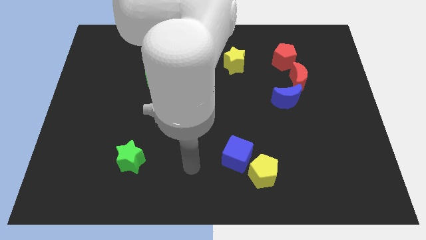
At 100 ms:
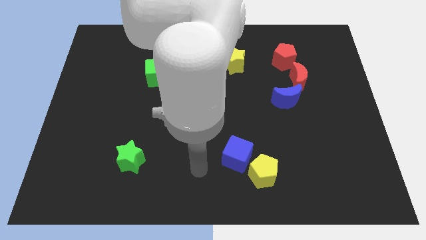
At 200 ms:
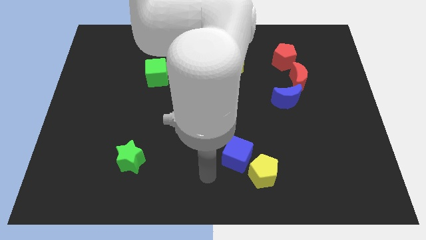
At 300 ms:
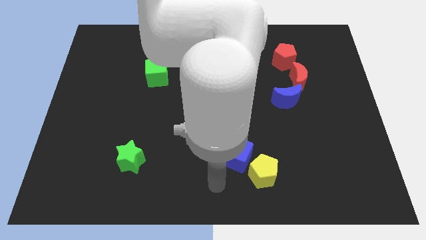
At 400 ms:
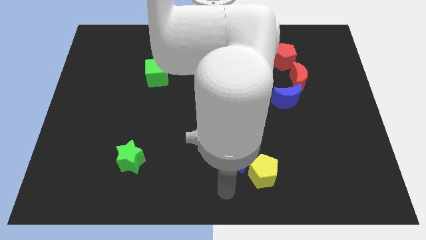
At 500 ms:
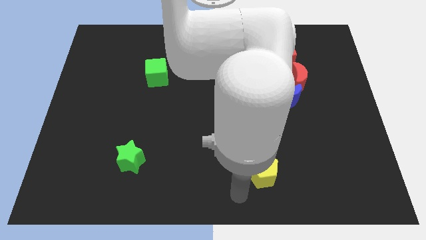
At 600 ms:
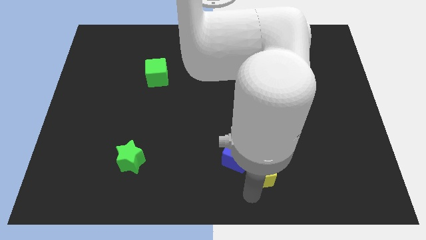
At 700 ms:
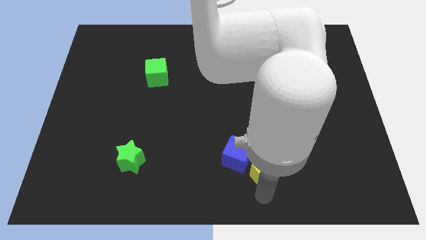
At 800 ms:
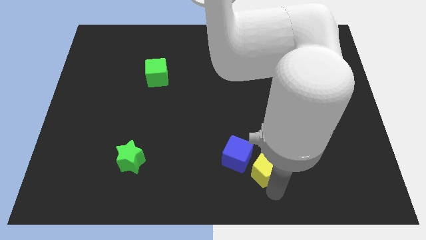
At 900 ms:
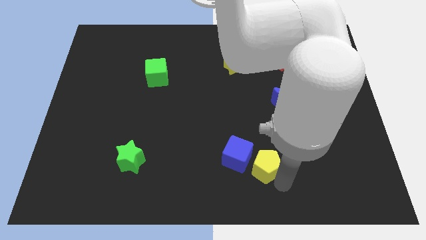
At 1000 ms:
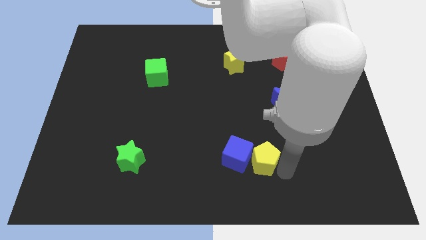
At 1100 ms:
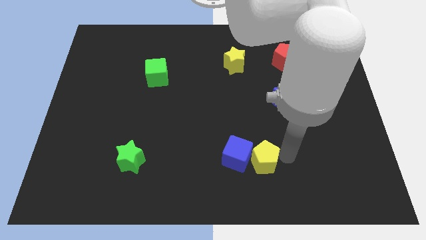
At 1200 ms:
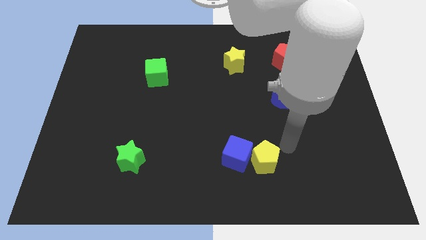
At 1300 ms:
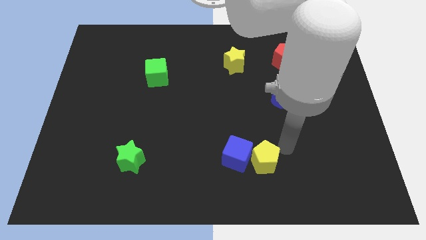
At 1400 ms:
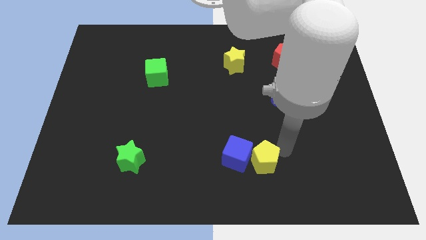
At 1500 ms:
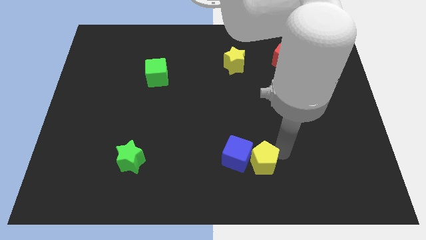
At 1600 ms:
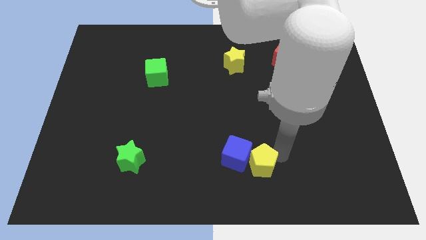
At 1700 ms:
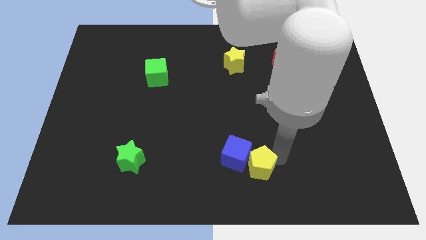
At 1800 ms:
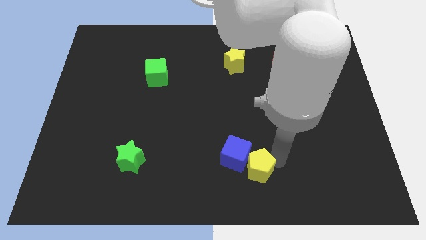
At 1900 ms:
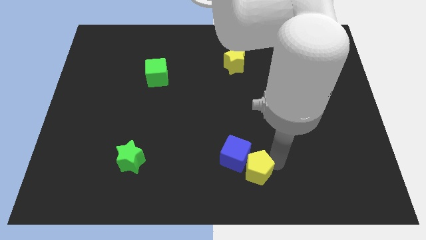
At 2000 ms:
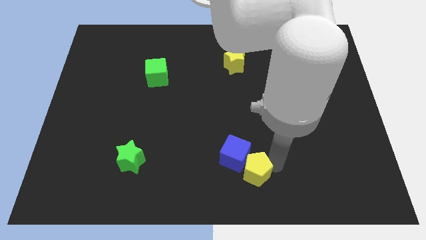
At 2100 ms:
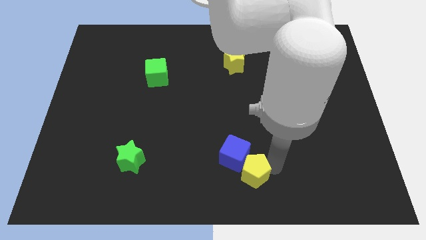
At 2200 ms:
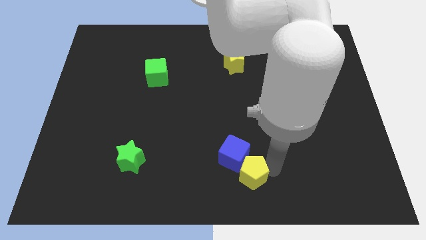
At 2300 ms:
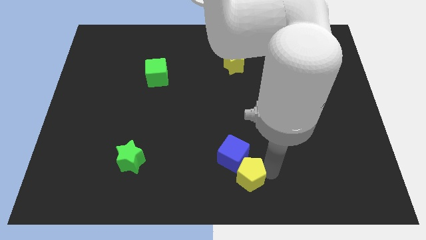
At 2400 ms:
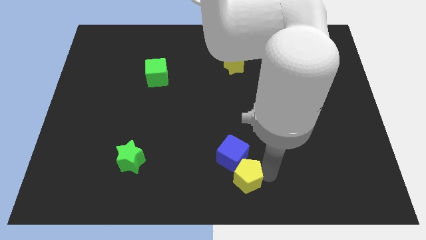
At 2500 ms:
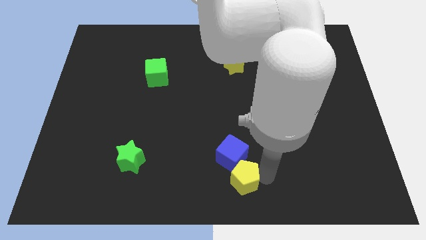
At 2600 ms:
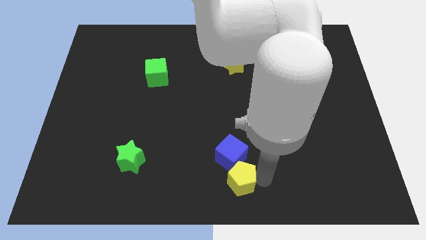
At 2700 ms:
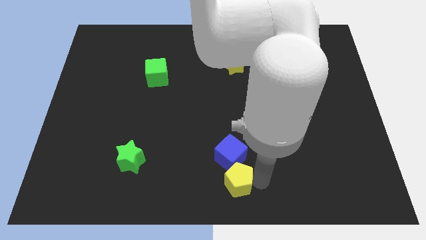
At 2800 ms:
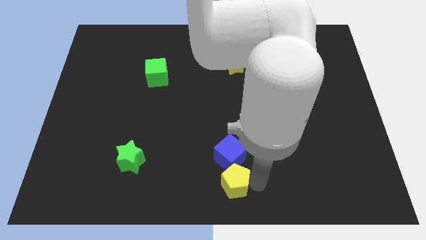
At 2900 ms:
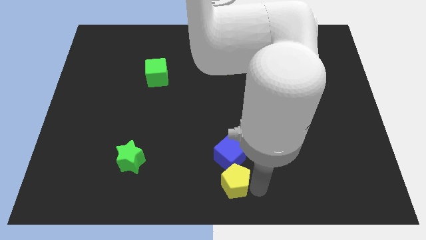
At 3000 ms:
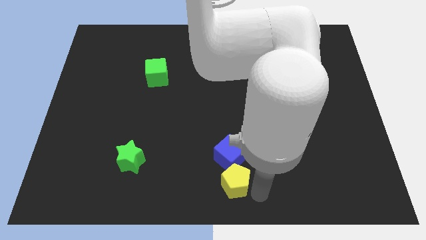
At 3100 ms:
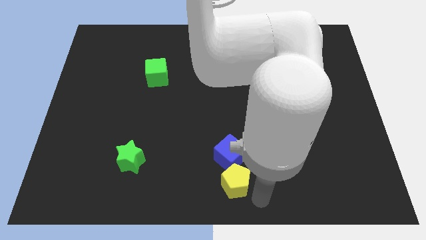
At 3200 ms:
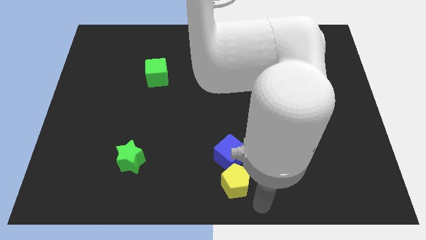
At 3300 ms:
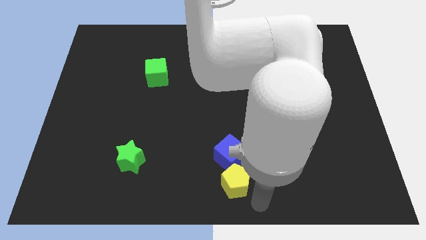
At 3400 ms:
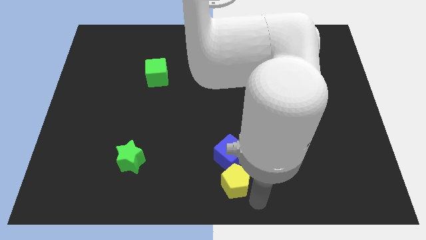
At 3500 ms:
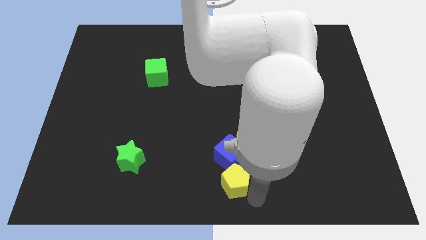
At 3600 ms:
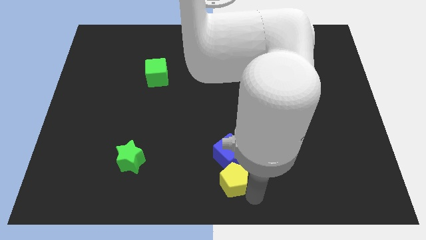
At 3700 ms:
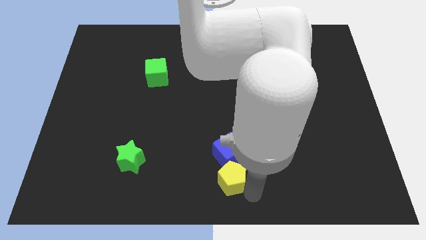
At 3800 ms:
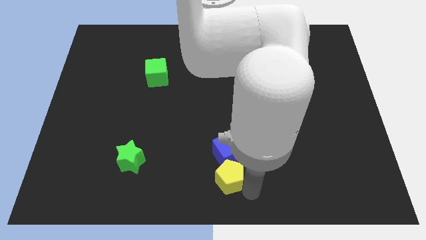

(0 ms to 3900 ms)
slide the yellow pentagon a bit to the left

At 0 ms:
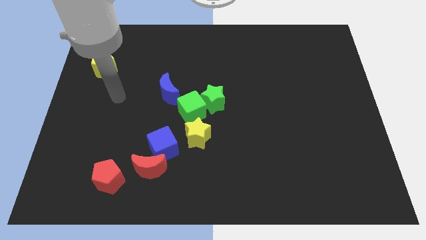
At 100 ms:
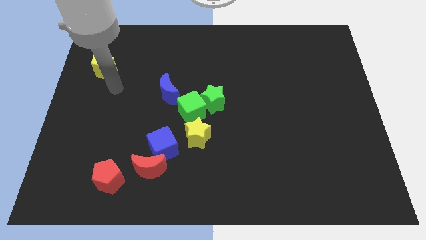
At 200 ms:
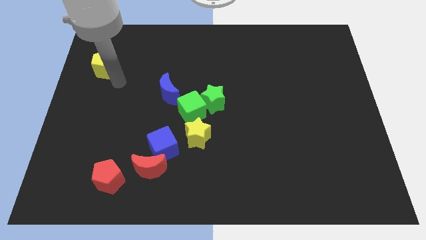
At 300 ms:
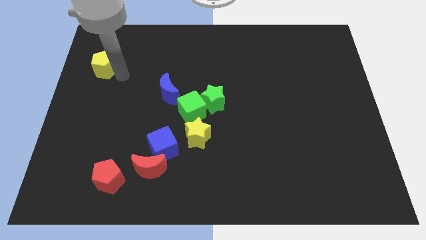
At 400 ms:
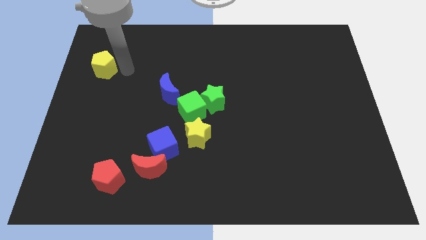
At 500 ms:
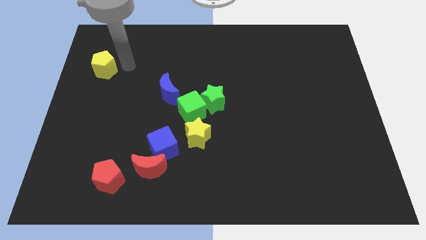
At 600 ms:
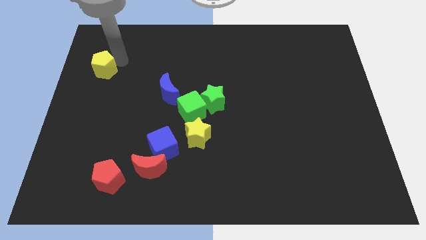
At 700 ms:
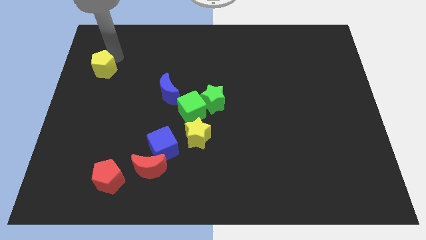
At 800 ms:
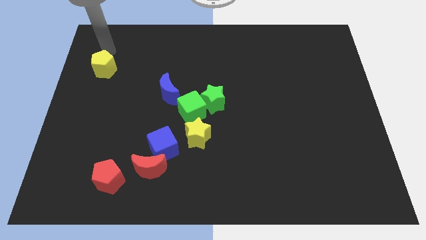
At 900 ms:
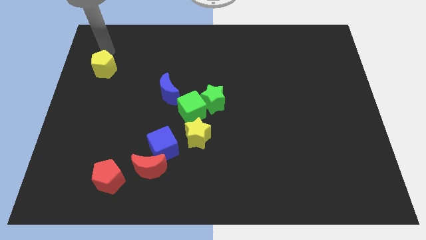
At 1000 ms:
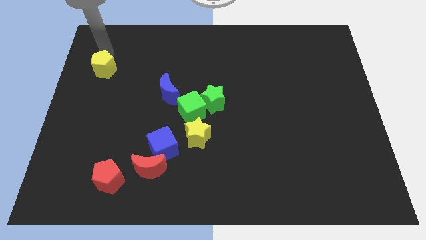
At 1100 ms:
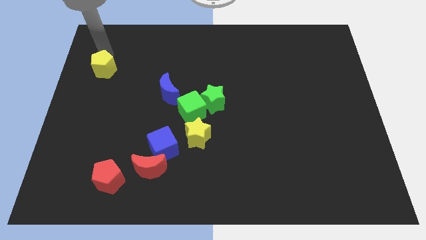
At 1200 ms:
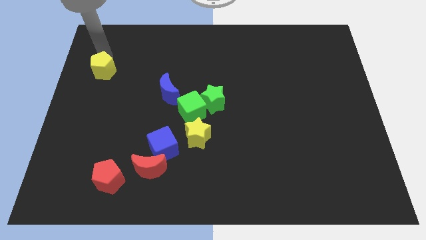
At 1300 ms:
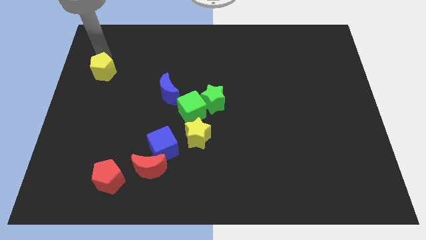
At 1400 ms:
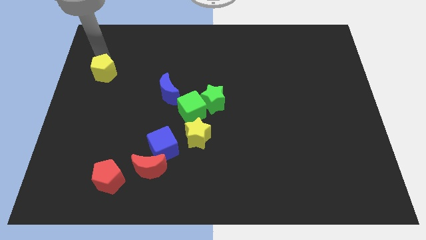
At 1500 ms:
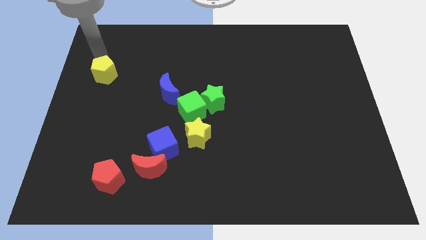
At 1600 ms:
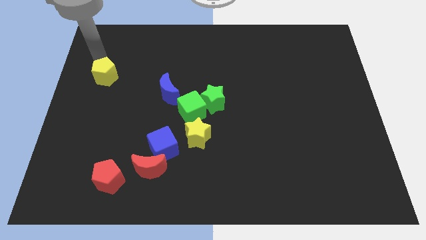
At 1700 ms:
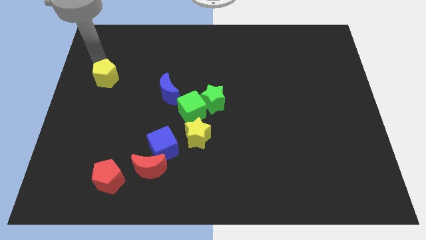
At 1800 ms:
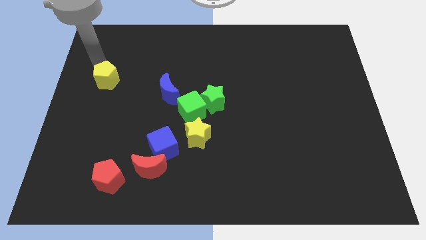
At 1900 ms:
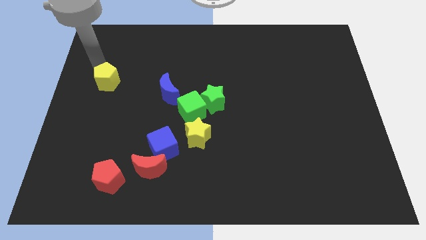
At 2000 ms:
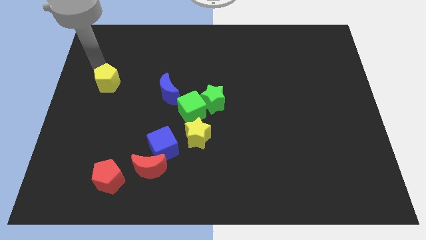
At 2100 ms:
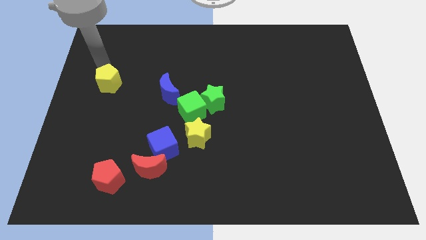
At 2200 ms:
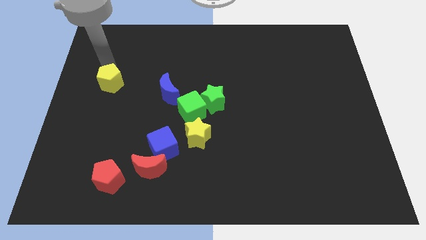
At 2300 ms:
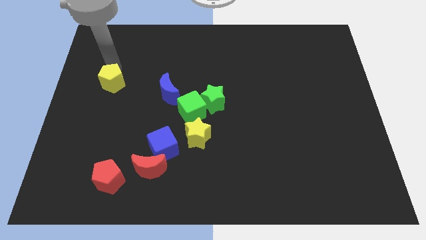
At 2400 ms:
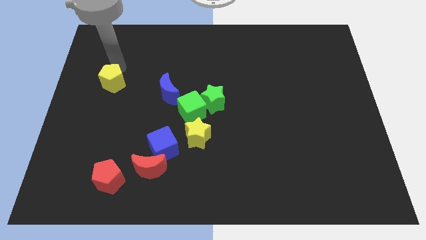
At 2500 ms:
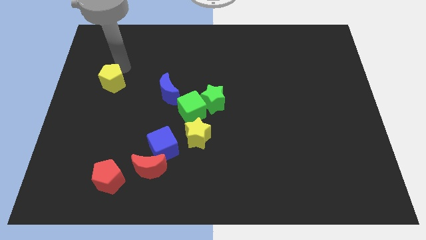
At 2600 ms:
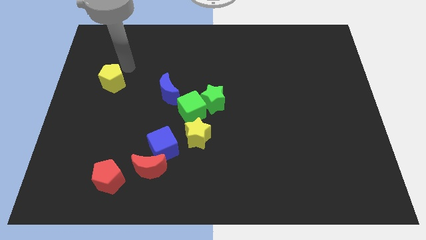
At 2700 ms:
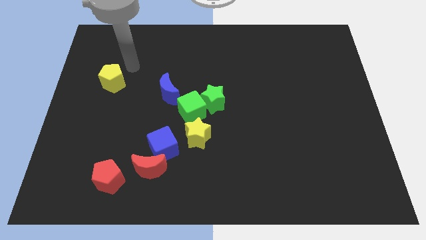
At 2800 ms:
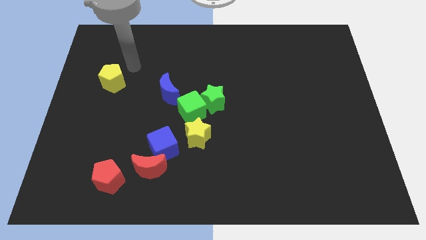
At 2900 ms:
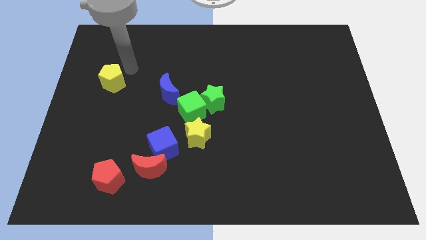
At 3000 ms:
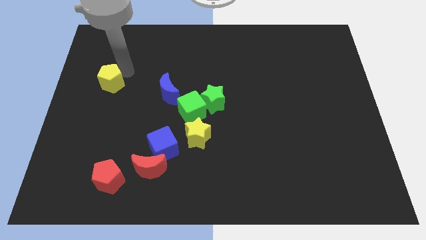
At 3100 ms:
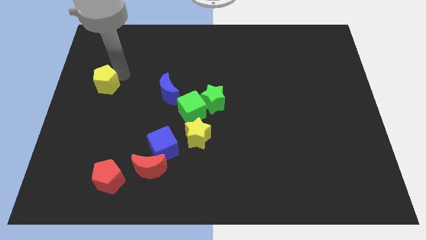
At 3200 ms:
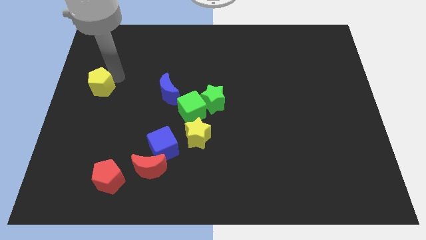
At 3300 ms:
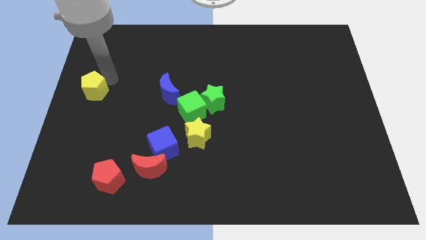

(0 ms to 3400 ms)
move the yellow pentagon a bit downwards

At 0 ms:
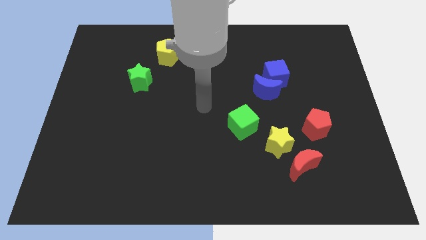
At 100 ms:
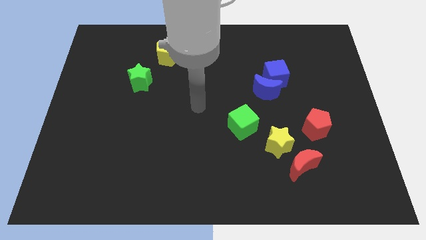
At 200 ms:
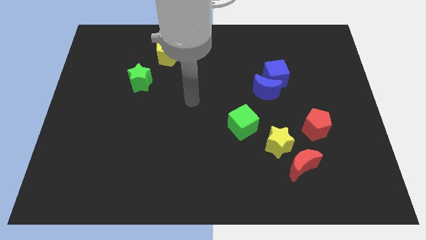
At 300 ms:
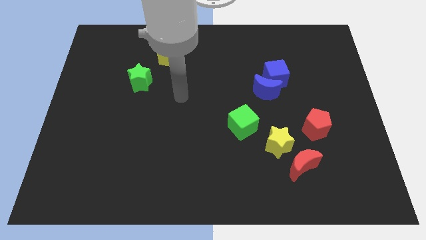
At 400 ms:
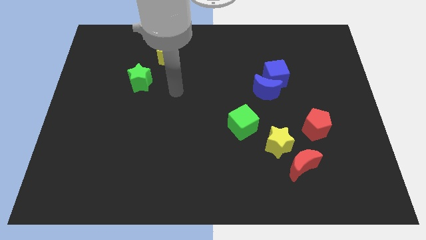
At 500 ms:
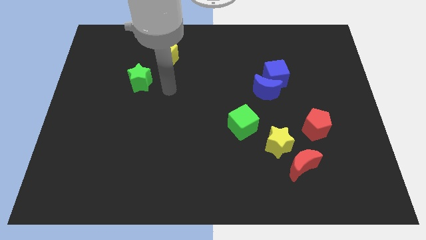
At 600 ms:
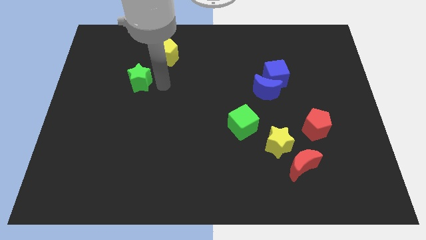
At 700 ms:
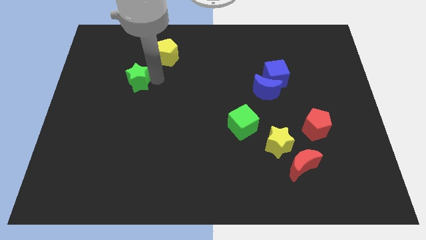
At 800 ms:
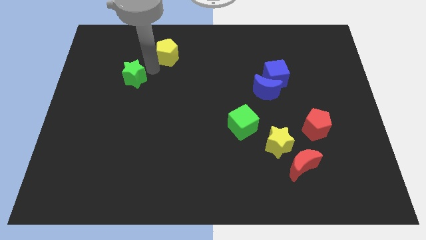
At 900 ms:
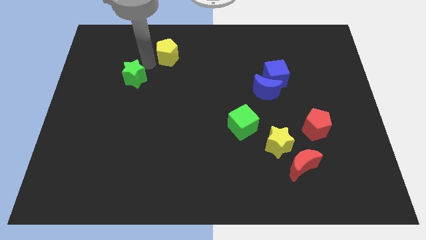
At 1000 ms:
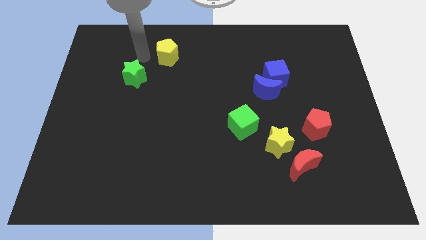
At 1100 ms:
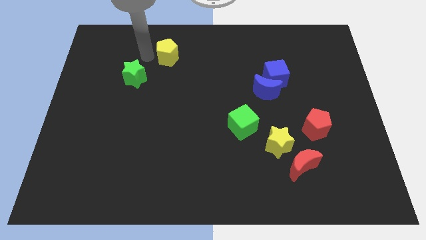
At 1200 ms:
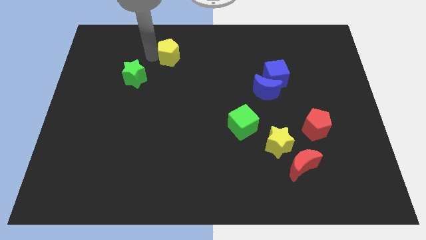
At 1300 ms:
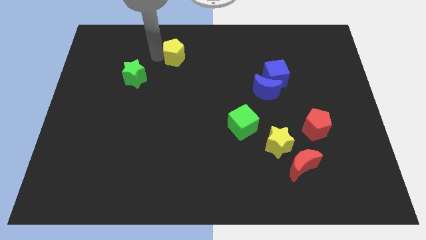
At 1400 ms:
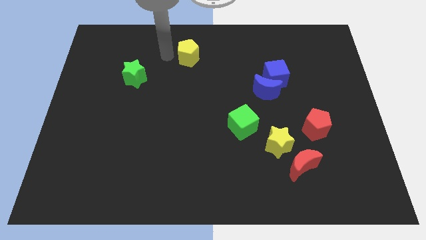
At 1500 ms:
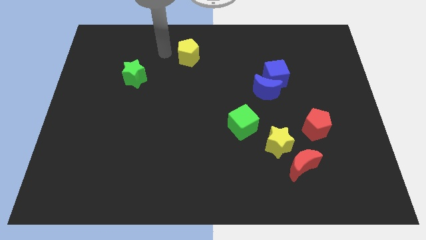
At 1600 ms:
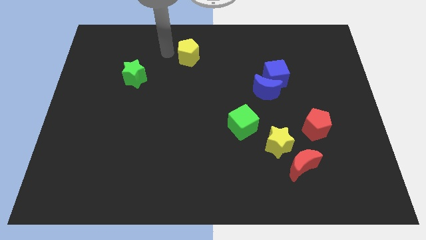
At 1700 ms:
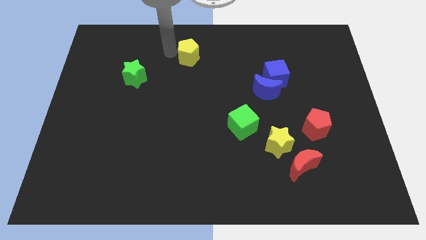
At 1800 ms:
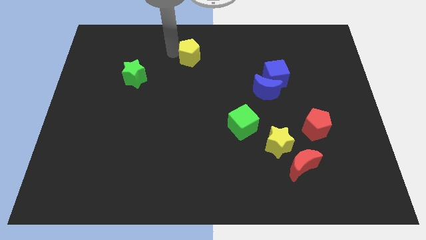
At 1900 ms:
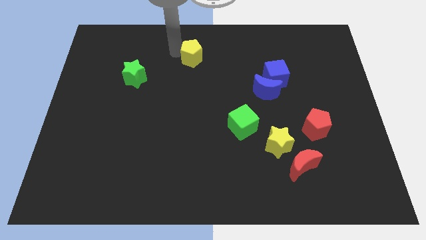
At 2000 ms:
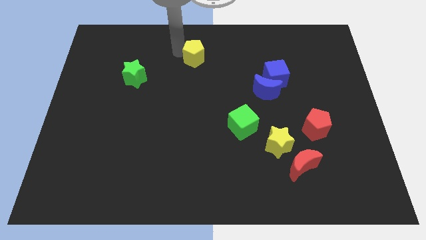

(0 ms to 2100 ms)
push the yellow pentagon slightly right
